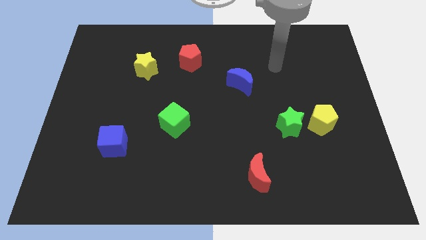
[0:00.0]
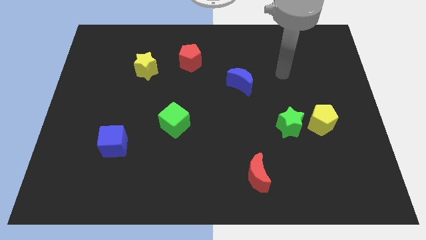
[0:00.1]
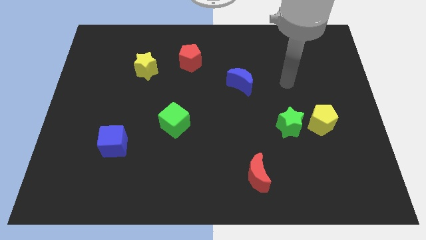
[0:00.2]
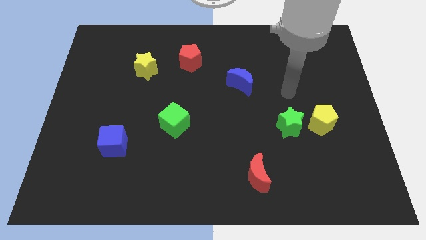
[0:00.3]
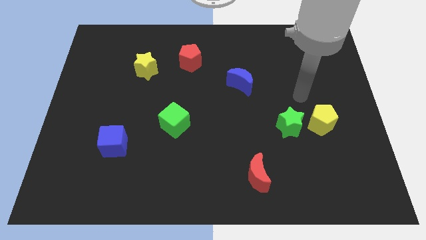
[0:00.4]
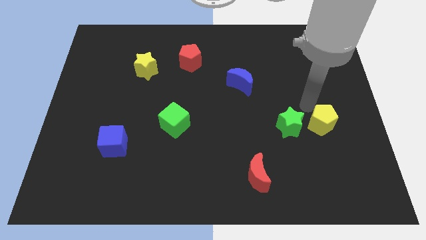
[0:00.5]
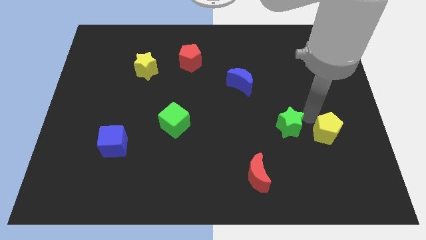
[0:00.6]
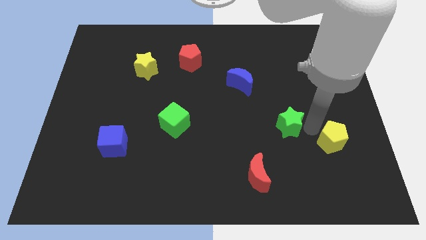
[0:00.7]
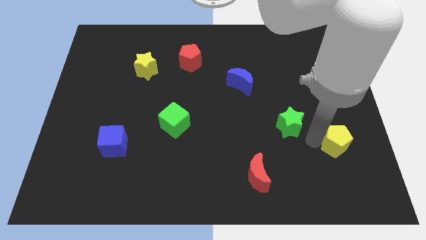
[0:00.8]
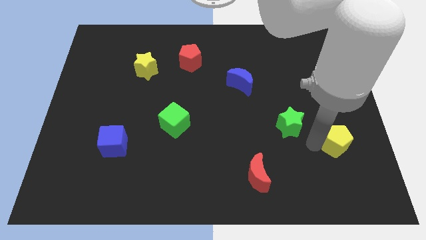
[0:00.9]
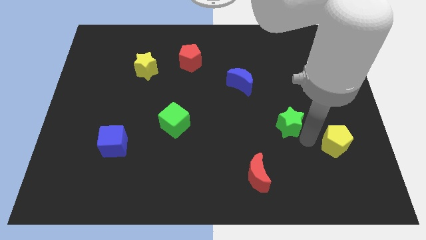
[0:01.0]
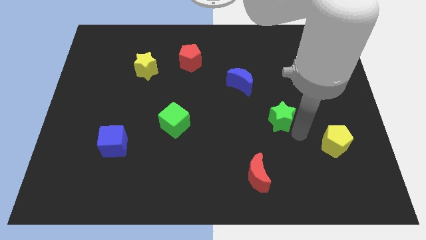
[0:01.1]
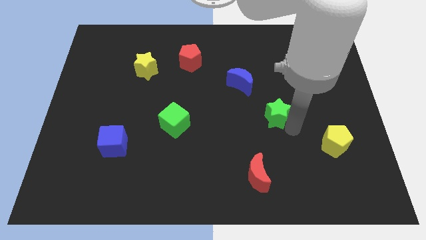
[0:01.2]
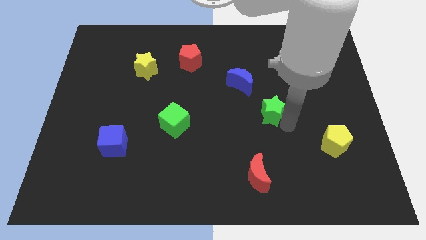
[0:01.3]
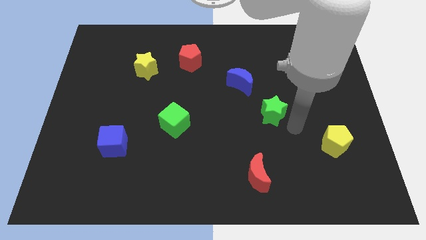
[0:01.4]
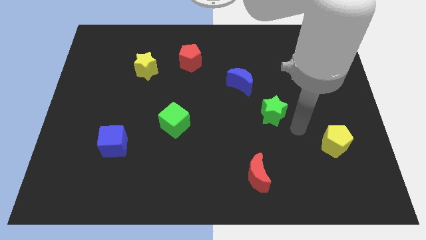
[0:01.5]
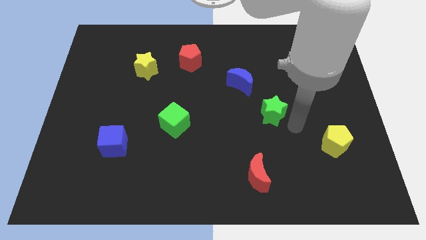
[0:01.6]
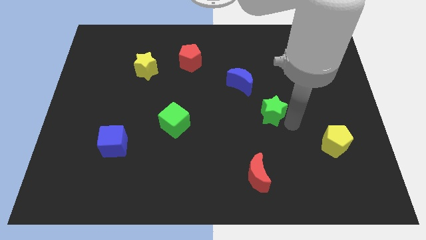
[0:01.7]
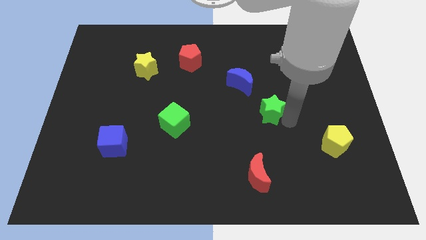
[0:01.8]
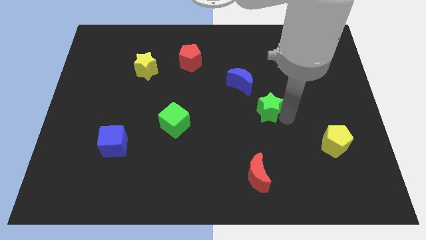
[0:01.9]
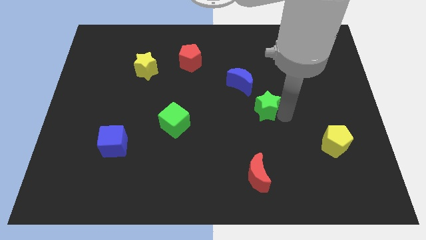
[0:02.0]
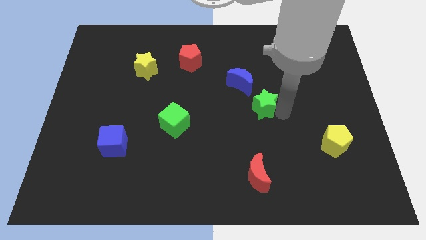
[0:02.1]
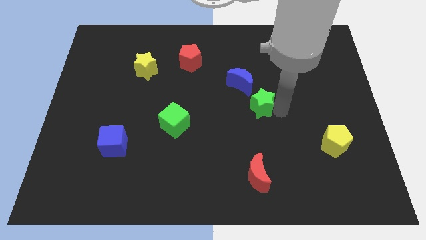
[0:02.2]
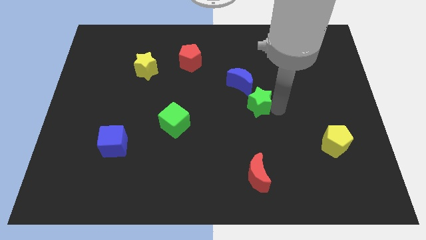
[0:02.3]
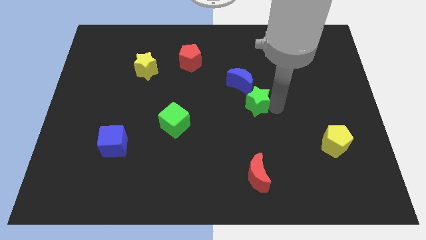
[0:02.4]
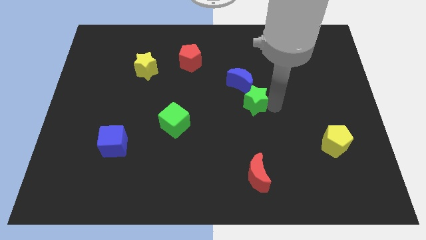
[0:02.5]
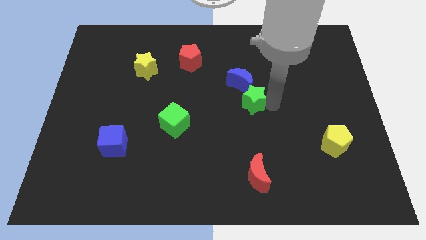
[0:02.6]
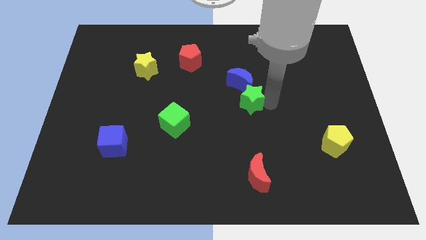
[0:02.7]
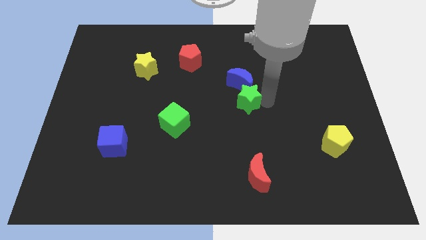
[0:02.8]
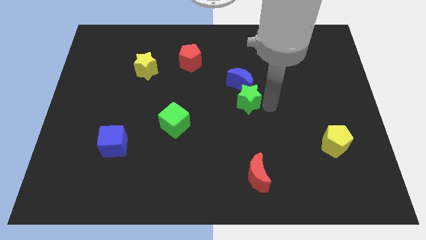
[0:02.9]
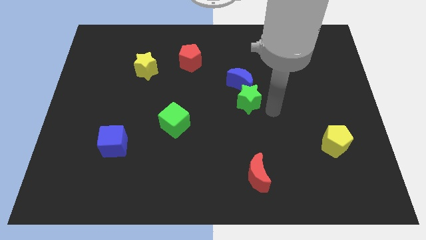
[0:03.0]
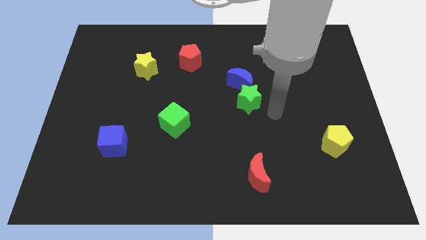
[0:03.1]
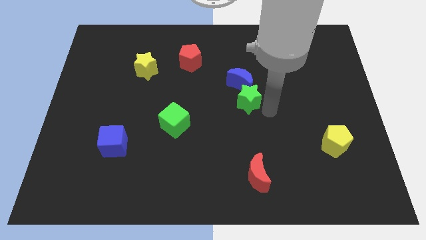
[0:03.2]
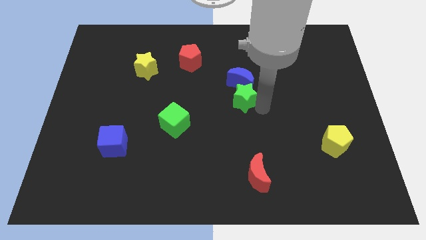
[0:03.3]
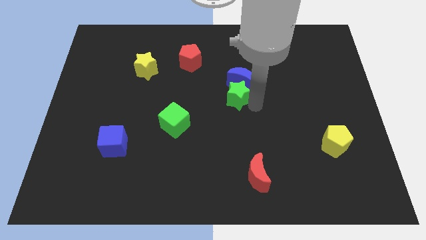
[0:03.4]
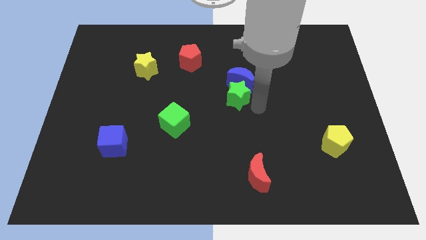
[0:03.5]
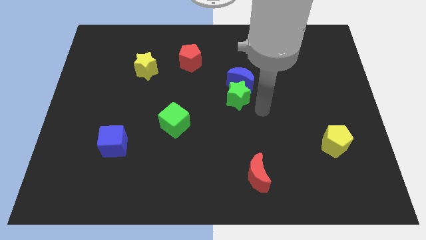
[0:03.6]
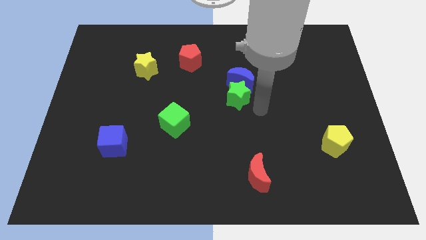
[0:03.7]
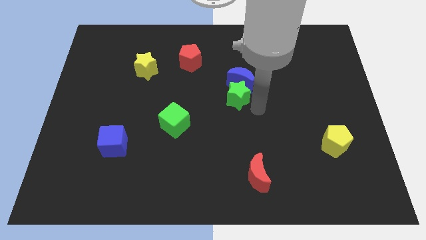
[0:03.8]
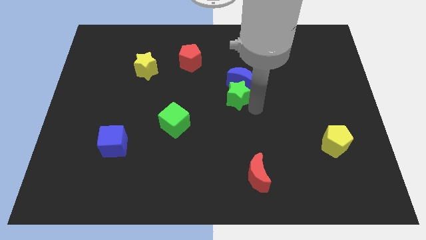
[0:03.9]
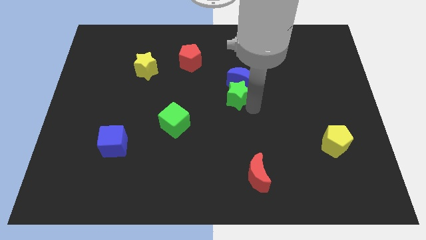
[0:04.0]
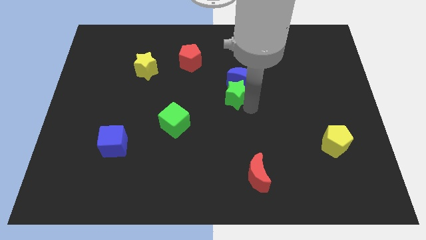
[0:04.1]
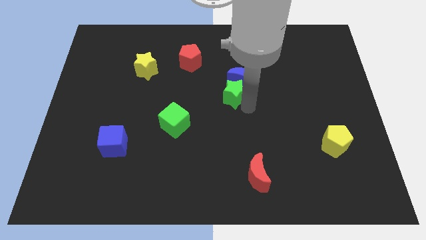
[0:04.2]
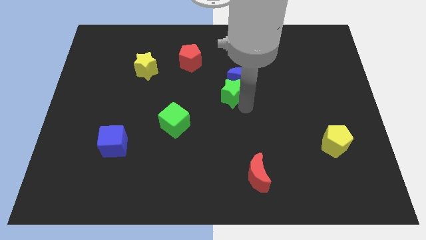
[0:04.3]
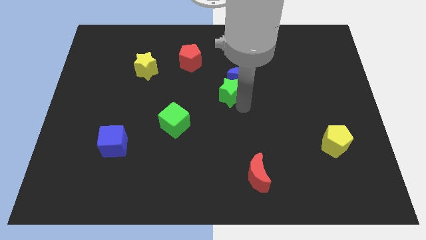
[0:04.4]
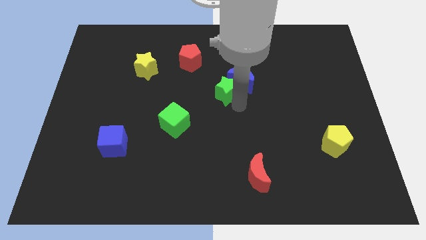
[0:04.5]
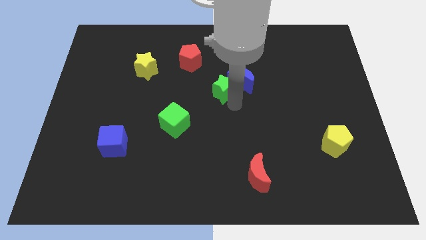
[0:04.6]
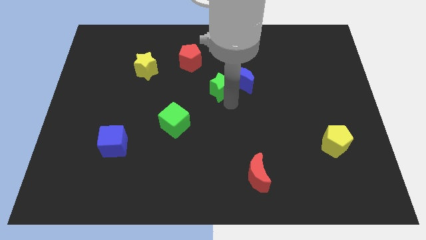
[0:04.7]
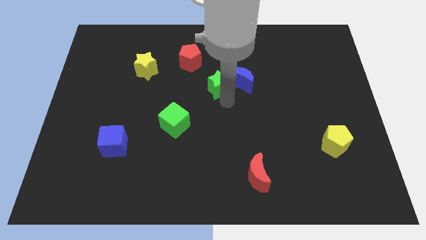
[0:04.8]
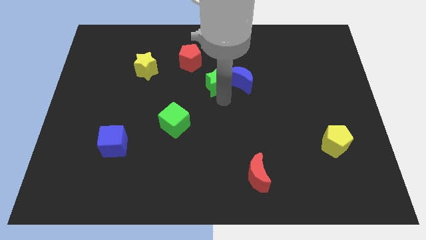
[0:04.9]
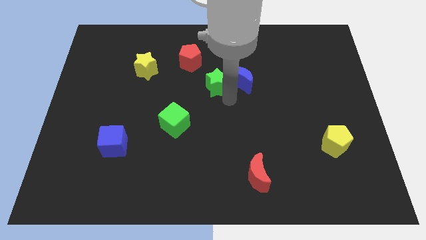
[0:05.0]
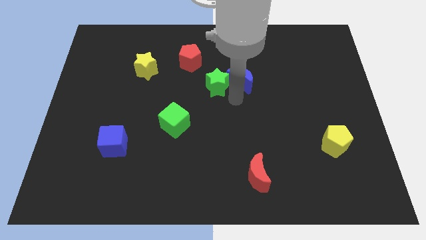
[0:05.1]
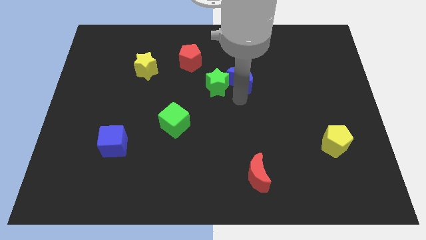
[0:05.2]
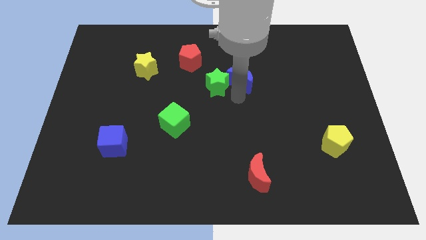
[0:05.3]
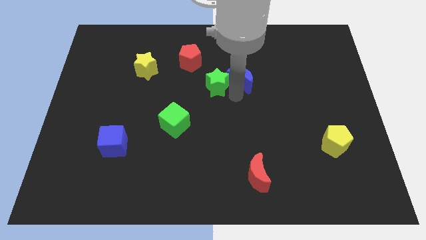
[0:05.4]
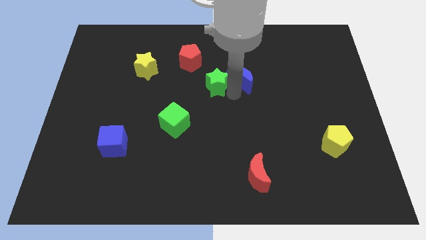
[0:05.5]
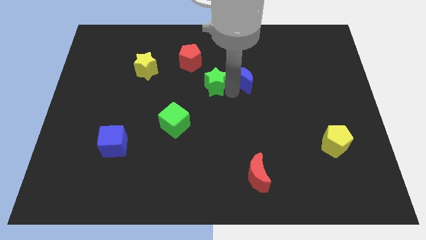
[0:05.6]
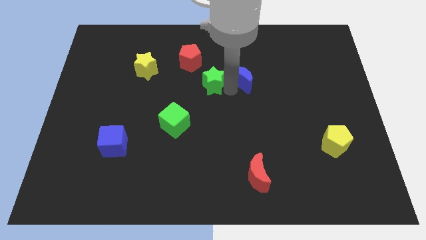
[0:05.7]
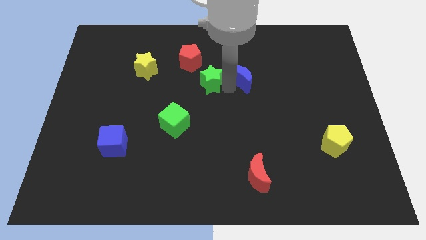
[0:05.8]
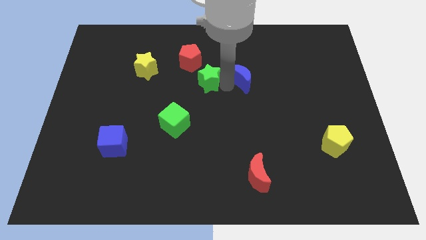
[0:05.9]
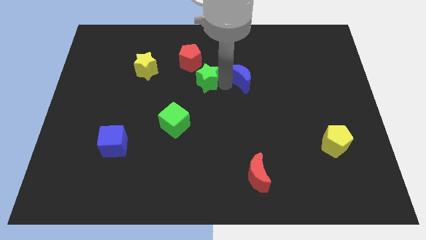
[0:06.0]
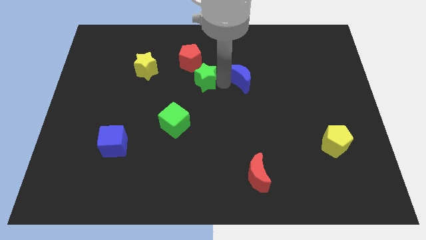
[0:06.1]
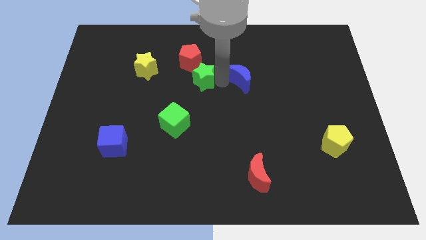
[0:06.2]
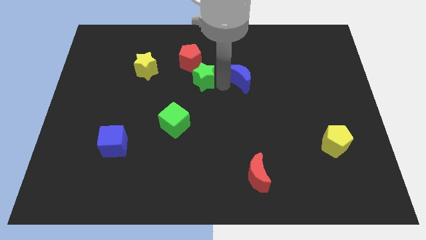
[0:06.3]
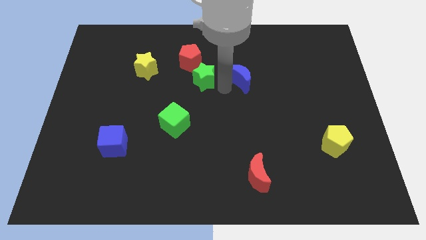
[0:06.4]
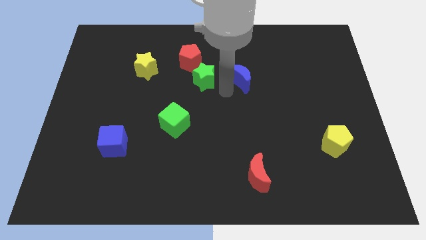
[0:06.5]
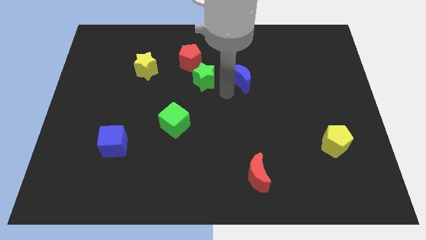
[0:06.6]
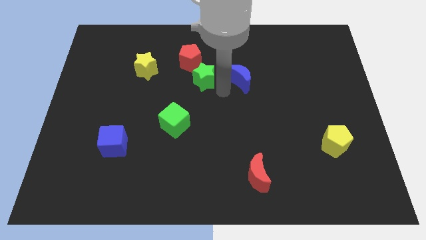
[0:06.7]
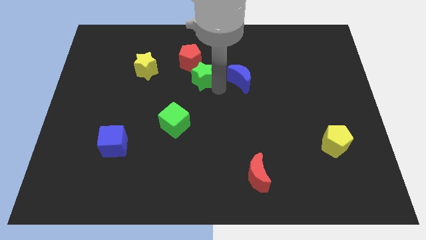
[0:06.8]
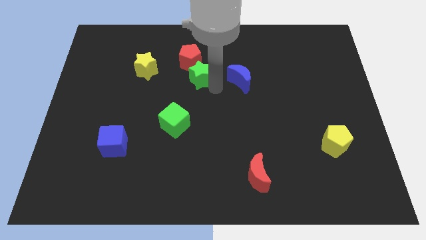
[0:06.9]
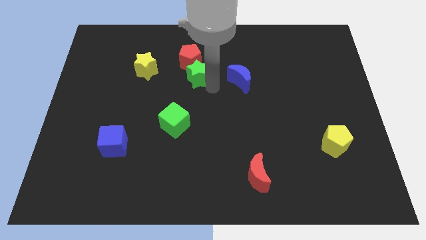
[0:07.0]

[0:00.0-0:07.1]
put the green star close to the red pentagon

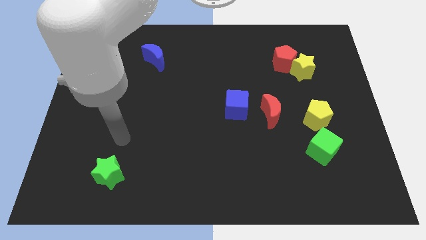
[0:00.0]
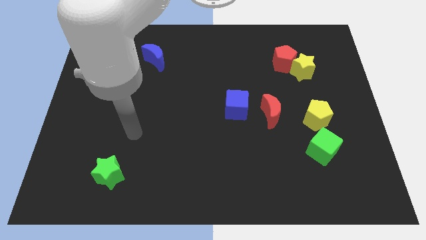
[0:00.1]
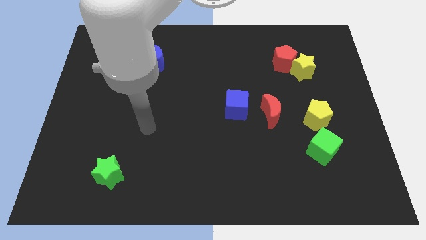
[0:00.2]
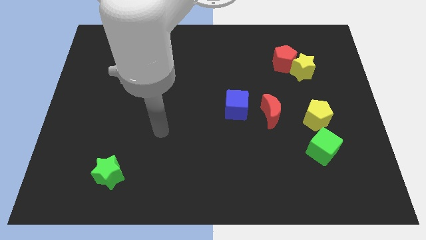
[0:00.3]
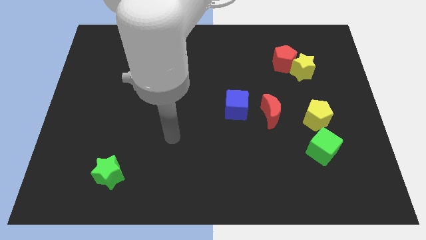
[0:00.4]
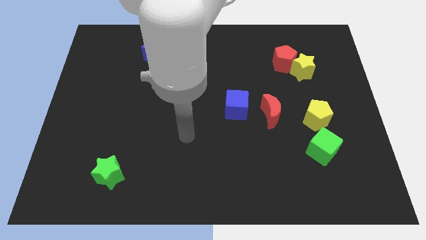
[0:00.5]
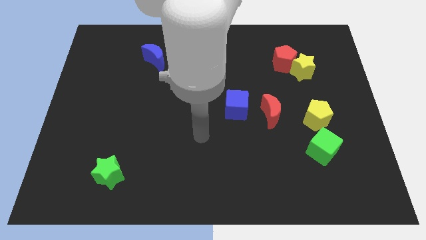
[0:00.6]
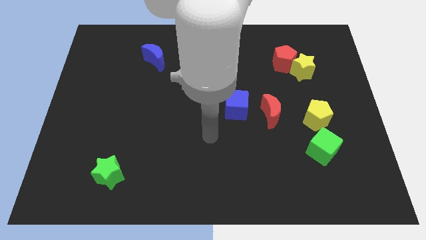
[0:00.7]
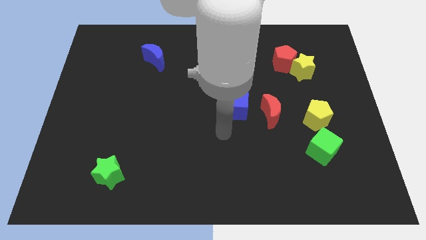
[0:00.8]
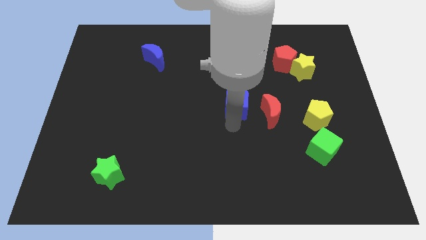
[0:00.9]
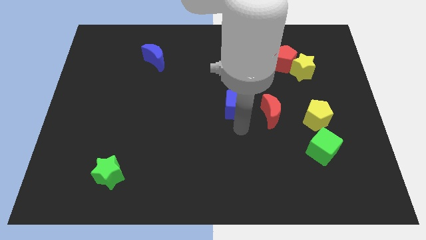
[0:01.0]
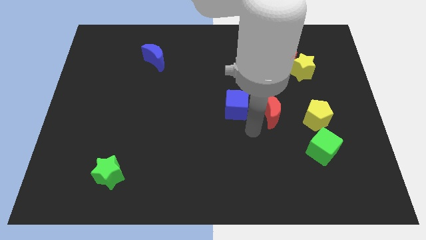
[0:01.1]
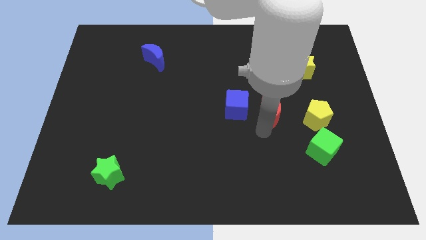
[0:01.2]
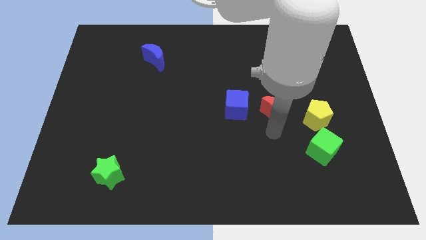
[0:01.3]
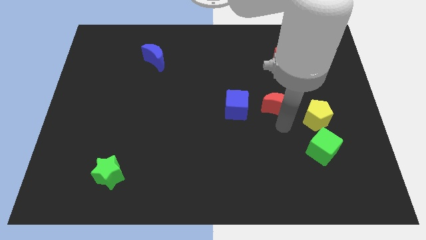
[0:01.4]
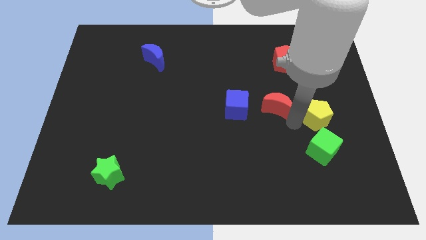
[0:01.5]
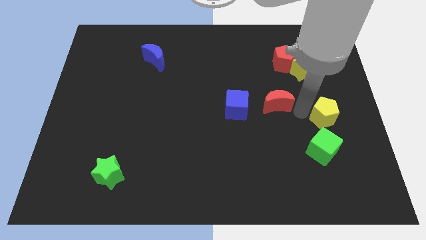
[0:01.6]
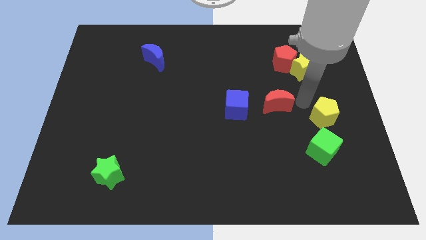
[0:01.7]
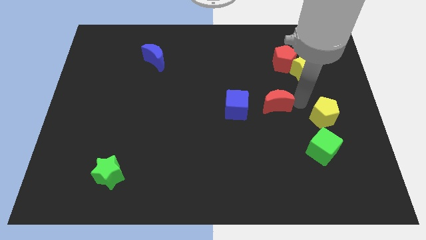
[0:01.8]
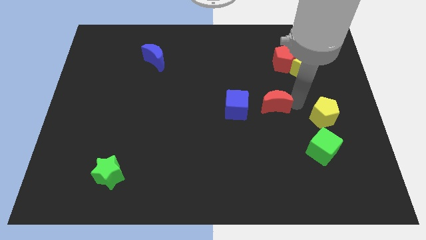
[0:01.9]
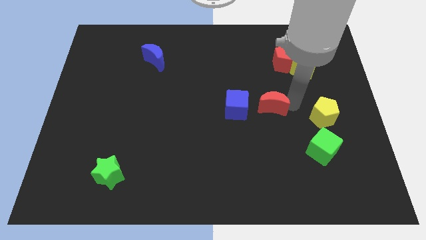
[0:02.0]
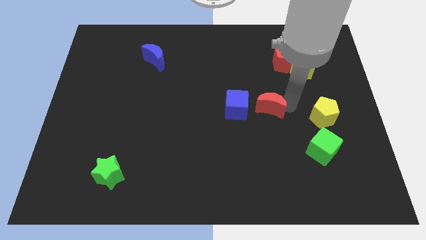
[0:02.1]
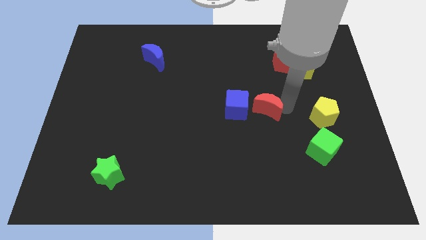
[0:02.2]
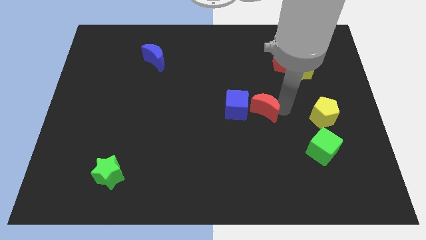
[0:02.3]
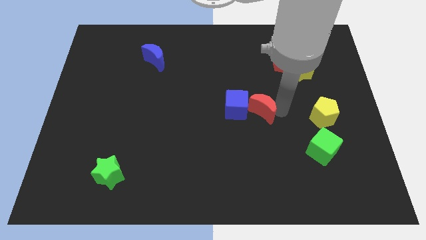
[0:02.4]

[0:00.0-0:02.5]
move the red moon close to the blue cube
